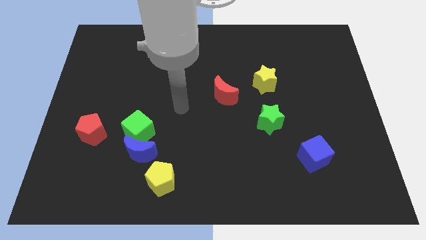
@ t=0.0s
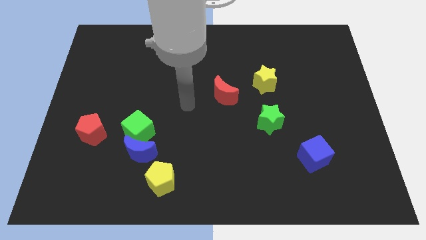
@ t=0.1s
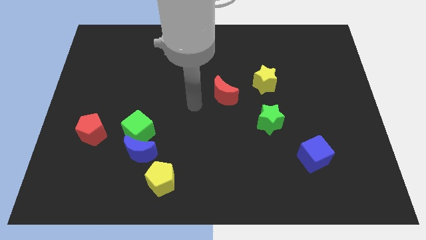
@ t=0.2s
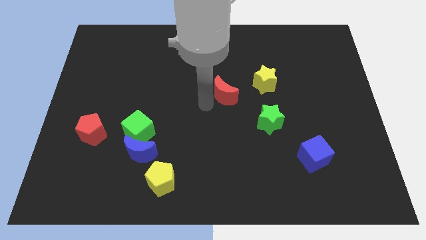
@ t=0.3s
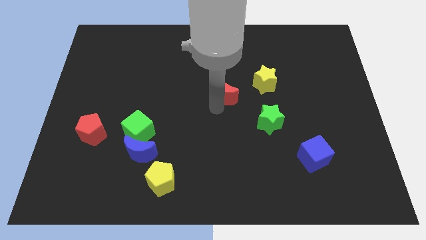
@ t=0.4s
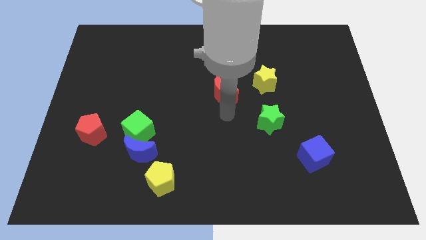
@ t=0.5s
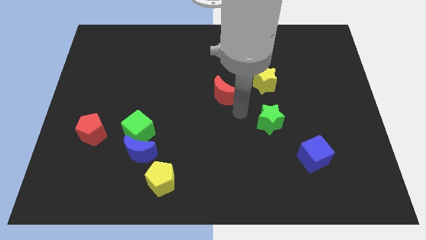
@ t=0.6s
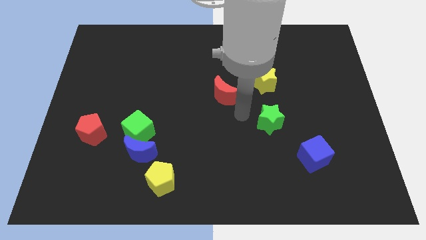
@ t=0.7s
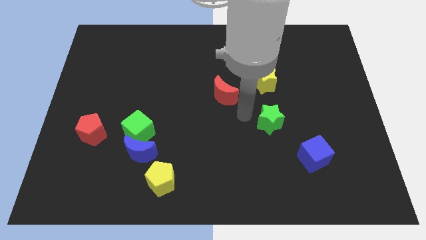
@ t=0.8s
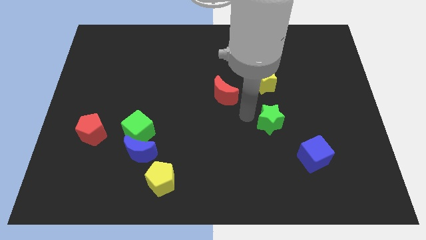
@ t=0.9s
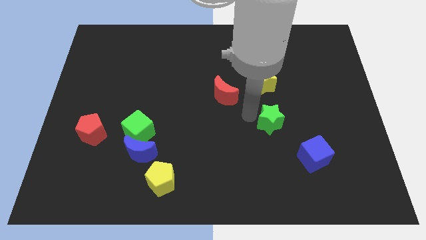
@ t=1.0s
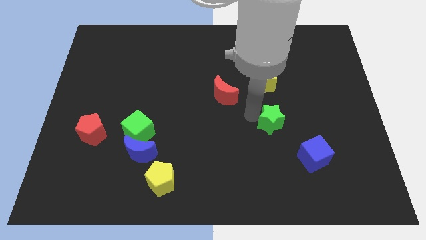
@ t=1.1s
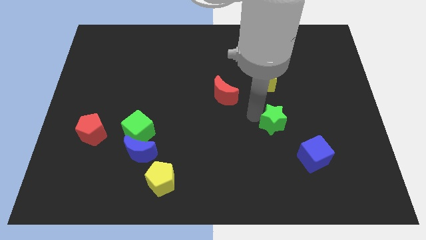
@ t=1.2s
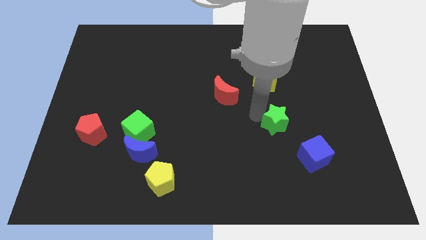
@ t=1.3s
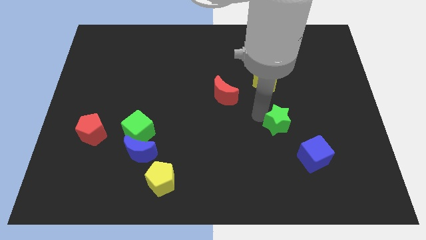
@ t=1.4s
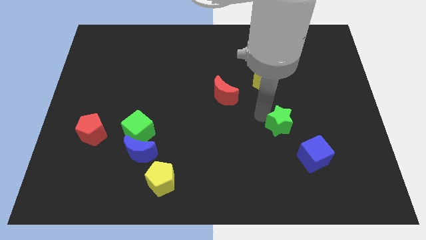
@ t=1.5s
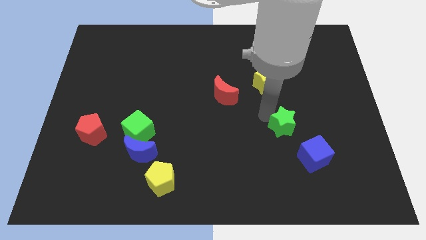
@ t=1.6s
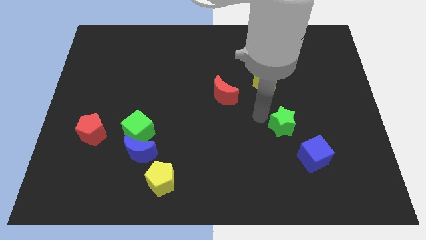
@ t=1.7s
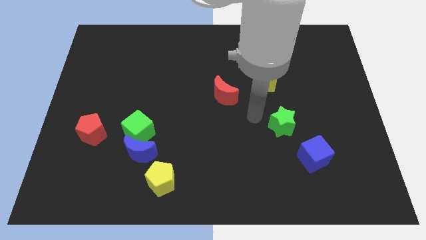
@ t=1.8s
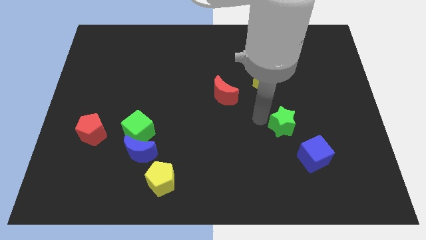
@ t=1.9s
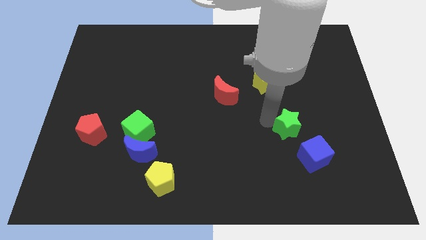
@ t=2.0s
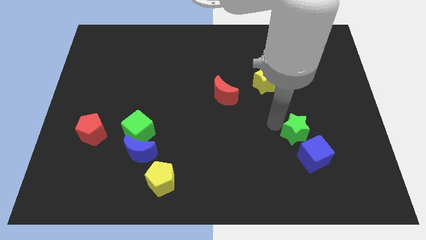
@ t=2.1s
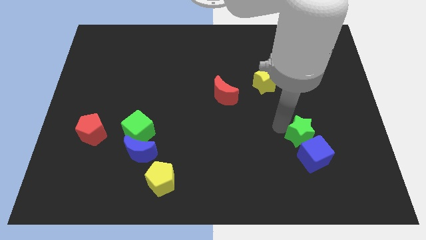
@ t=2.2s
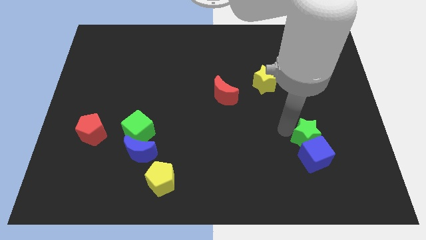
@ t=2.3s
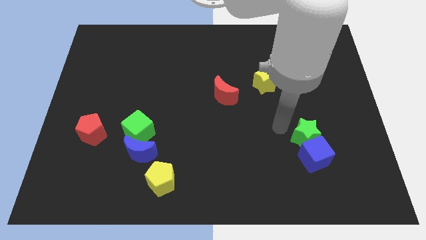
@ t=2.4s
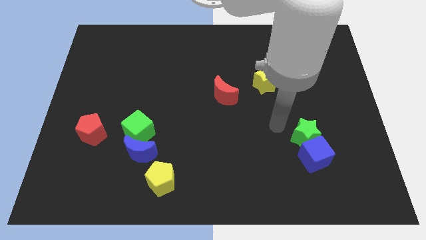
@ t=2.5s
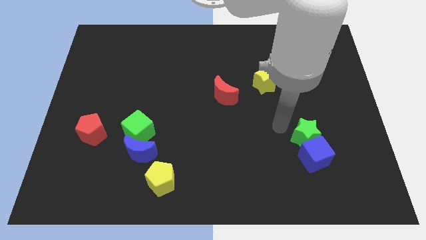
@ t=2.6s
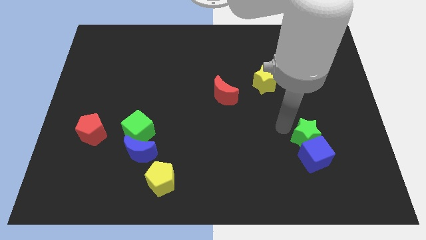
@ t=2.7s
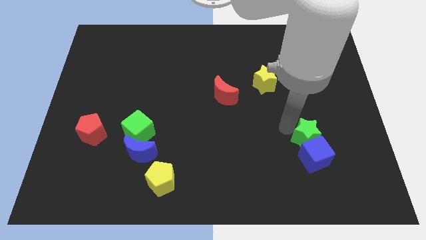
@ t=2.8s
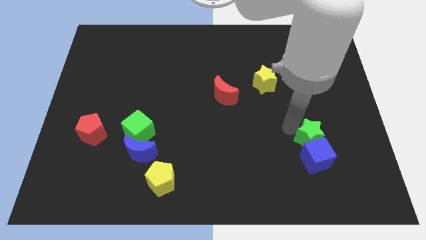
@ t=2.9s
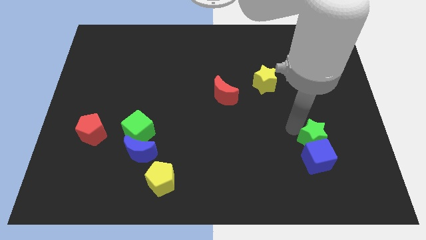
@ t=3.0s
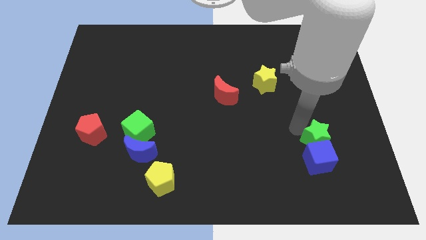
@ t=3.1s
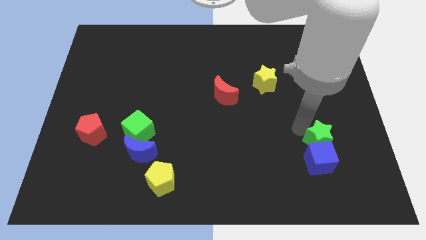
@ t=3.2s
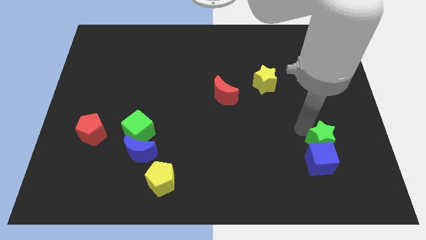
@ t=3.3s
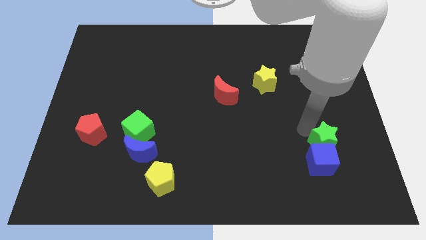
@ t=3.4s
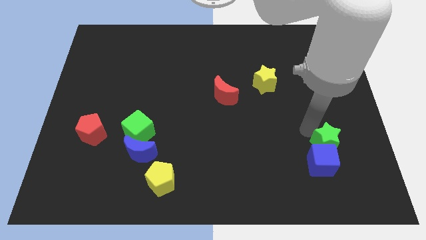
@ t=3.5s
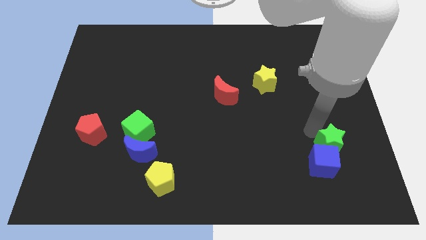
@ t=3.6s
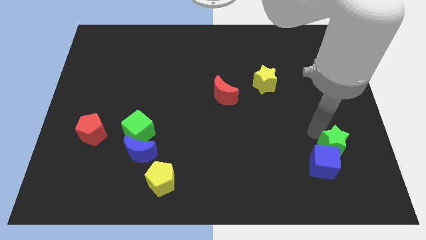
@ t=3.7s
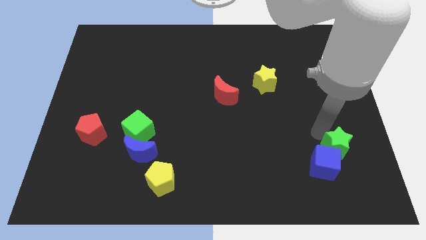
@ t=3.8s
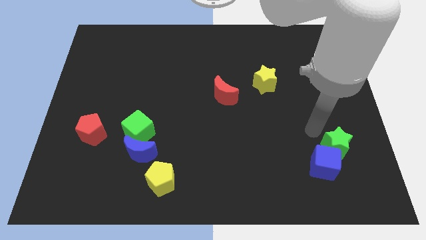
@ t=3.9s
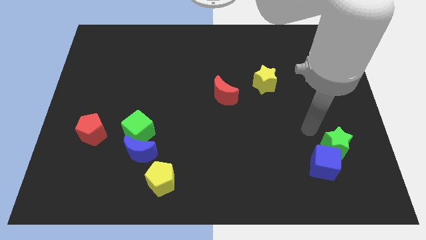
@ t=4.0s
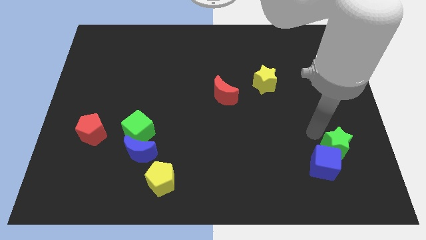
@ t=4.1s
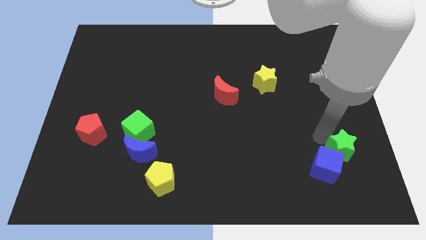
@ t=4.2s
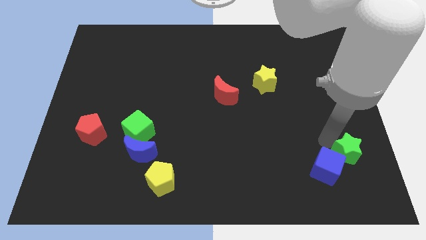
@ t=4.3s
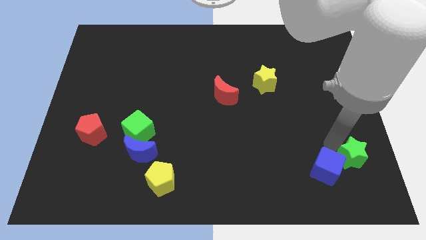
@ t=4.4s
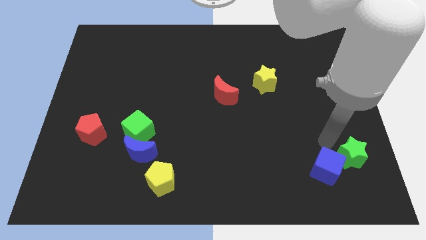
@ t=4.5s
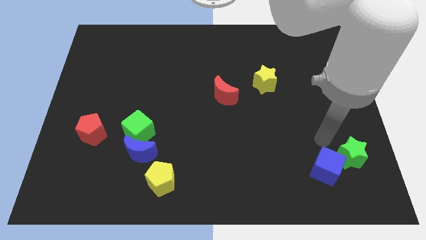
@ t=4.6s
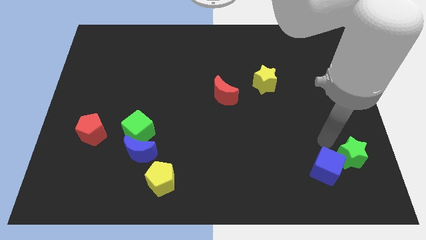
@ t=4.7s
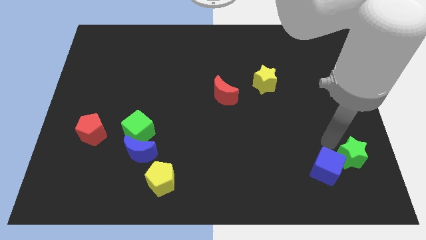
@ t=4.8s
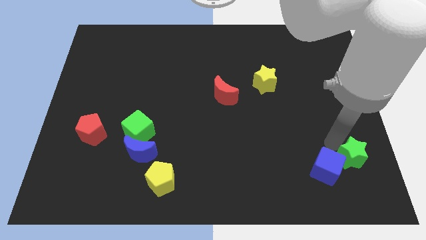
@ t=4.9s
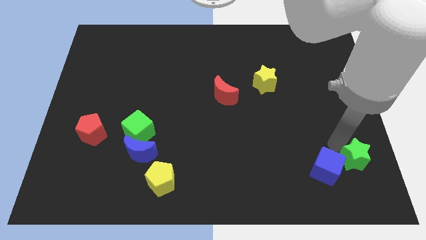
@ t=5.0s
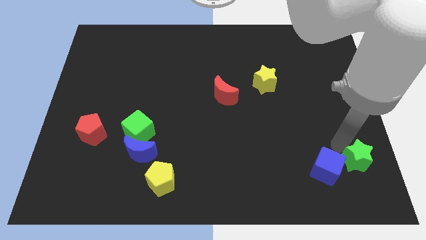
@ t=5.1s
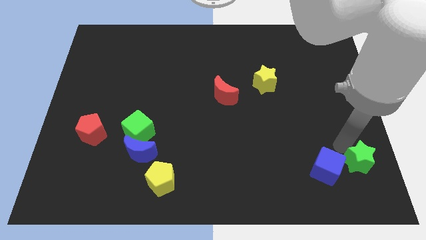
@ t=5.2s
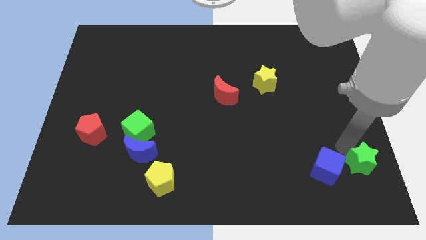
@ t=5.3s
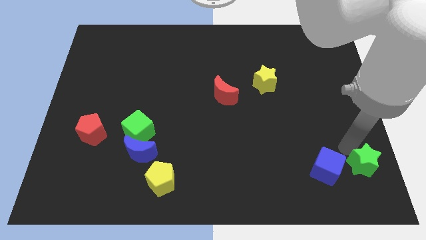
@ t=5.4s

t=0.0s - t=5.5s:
move the green star to the bottom right of the board

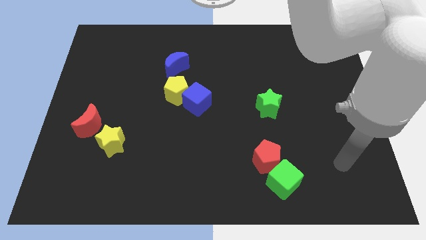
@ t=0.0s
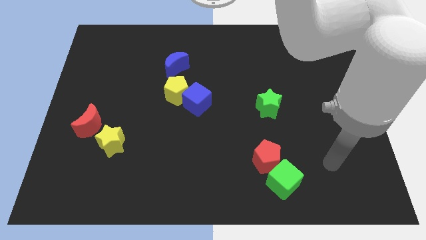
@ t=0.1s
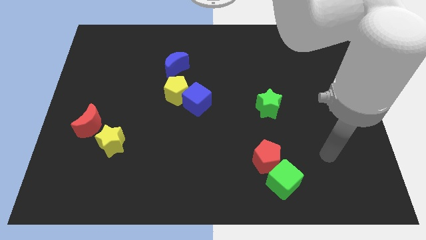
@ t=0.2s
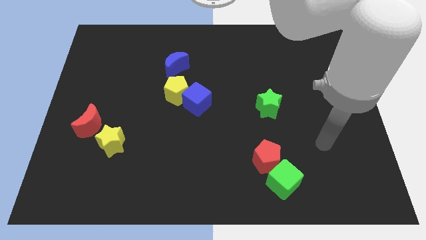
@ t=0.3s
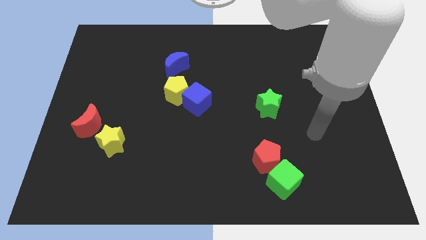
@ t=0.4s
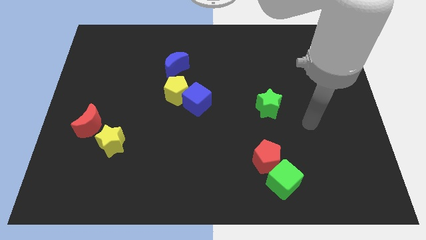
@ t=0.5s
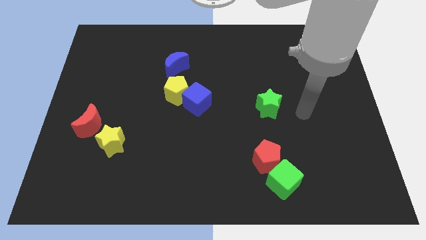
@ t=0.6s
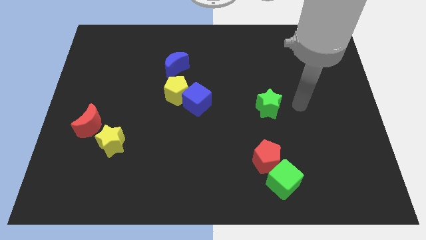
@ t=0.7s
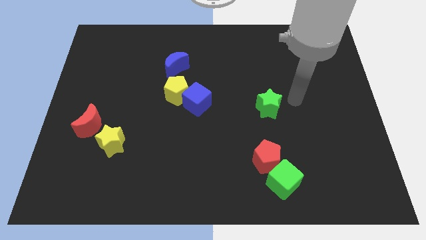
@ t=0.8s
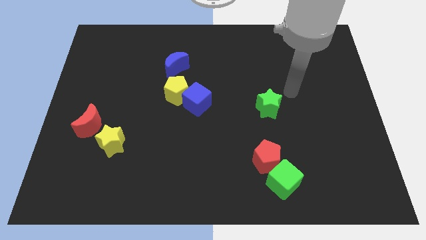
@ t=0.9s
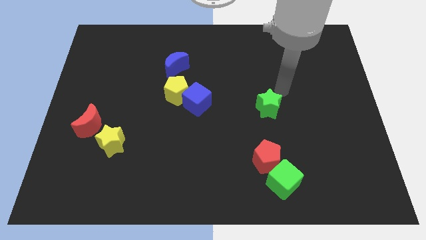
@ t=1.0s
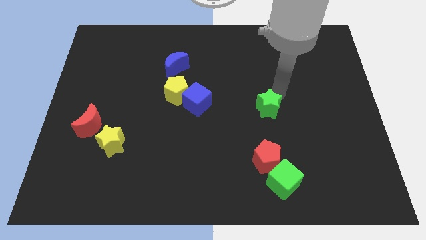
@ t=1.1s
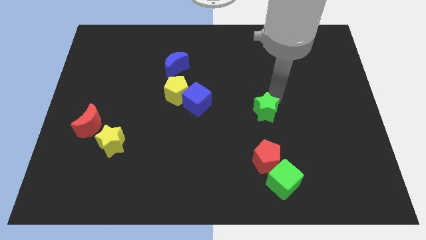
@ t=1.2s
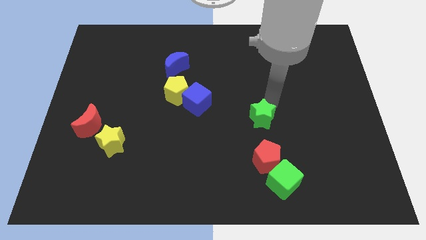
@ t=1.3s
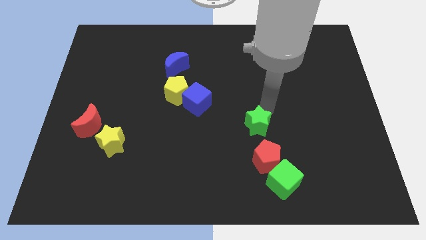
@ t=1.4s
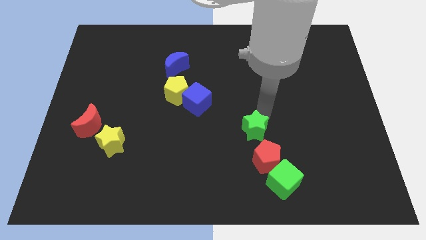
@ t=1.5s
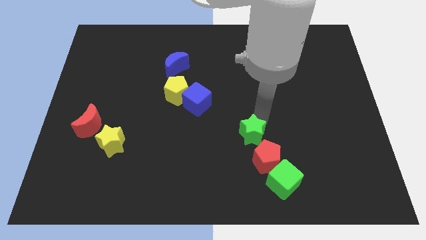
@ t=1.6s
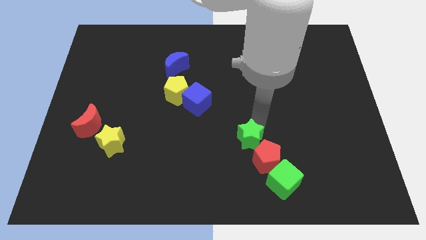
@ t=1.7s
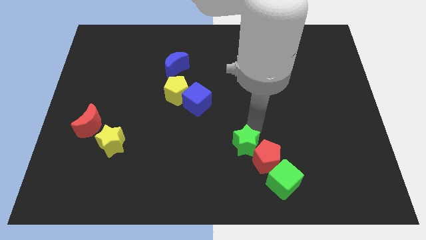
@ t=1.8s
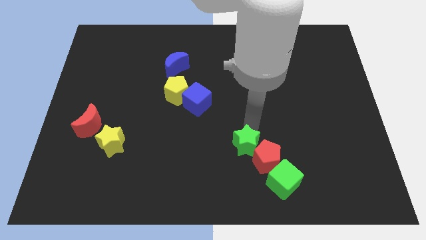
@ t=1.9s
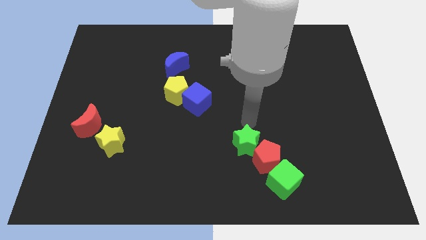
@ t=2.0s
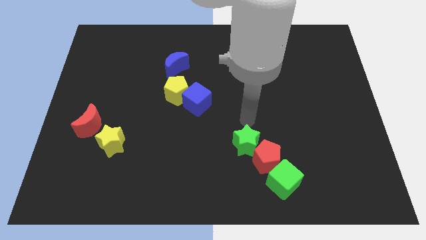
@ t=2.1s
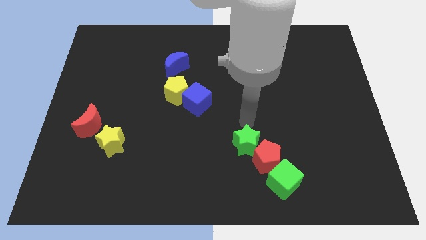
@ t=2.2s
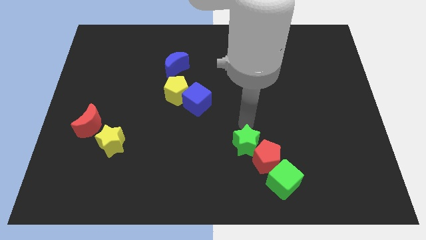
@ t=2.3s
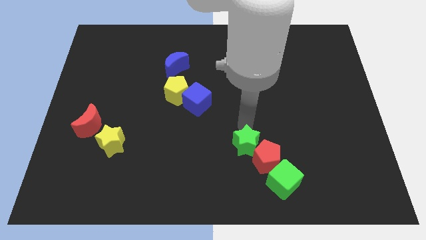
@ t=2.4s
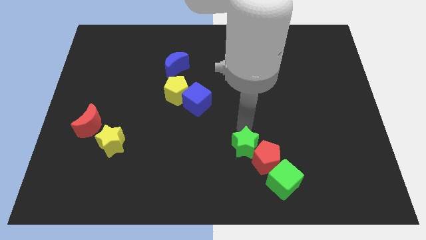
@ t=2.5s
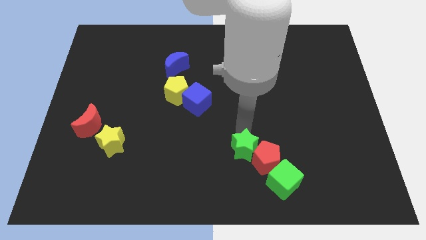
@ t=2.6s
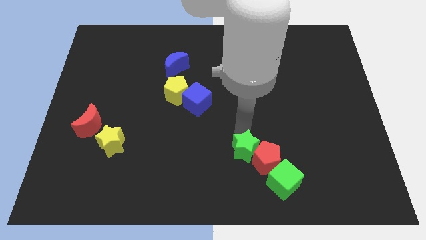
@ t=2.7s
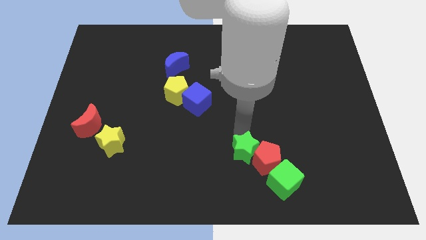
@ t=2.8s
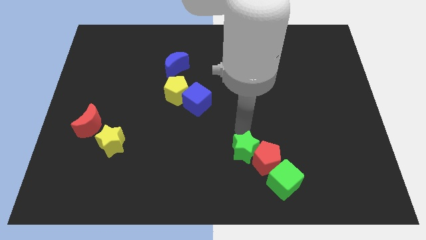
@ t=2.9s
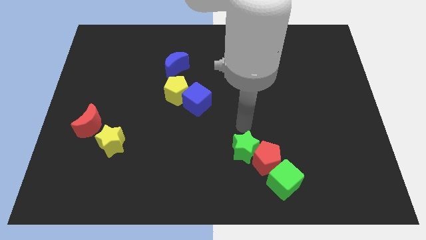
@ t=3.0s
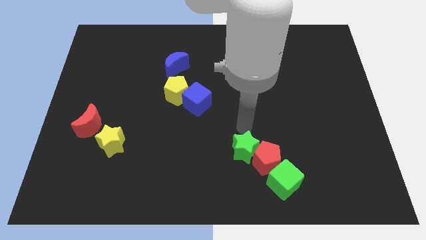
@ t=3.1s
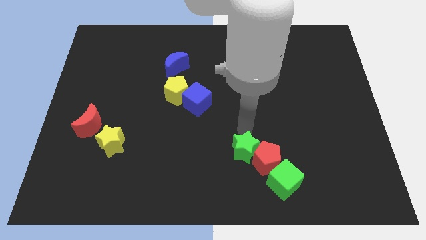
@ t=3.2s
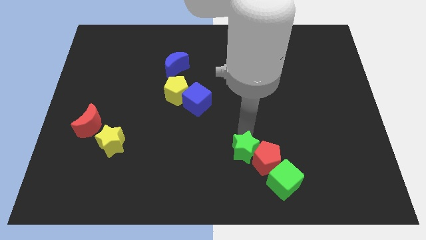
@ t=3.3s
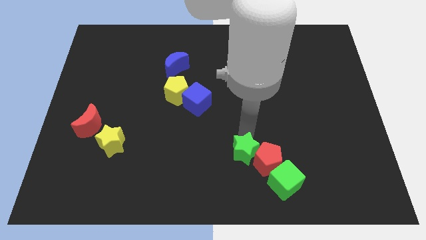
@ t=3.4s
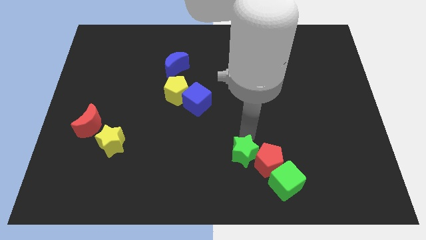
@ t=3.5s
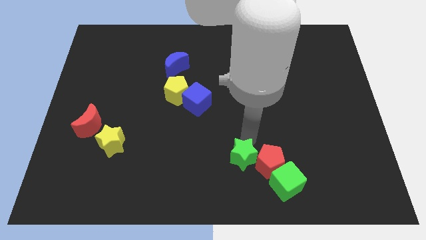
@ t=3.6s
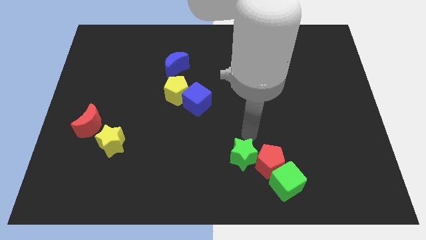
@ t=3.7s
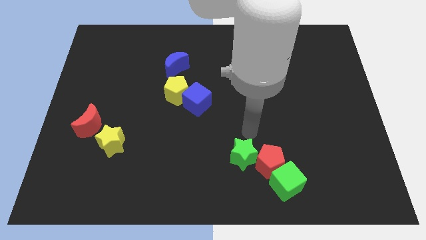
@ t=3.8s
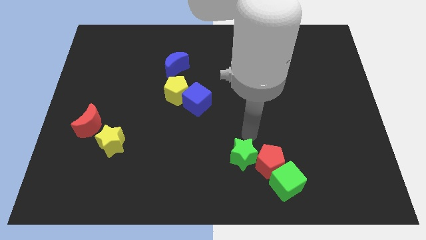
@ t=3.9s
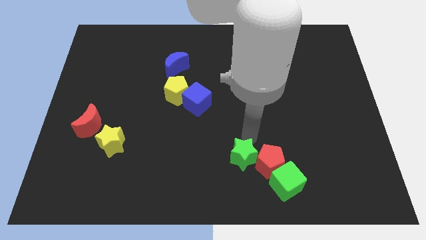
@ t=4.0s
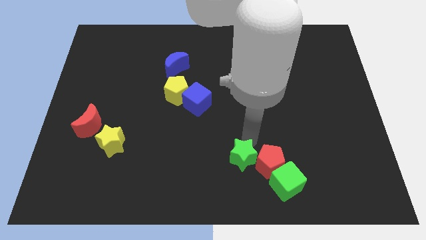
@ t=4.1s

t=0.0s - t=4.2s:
put the green star to the bottom
